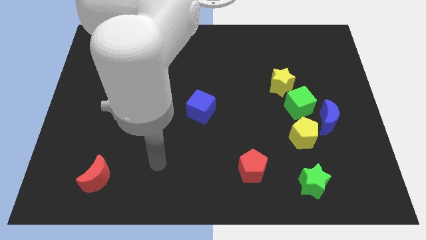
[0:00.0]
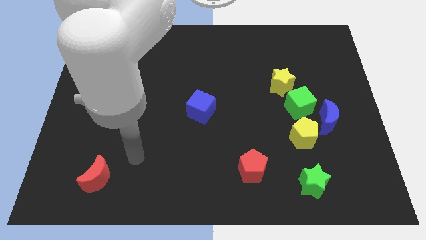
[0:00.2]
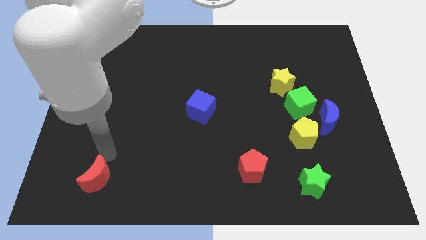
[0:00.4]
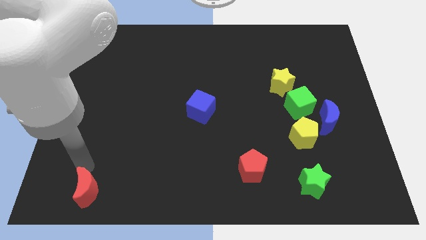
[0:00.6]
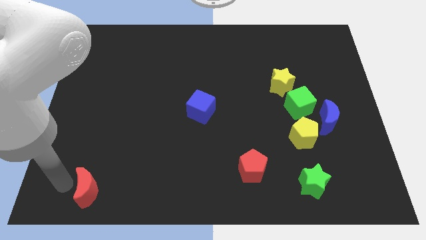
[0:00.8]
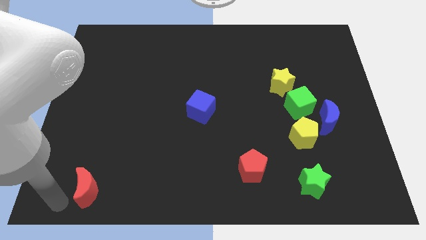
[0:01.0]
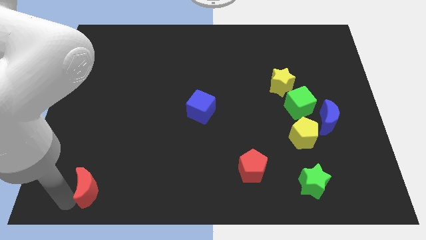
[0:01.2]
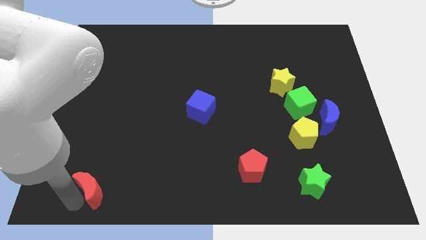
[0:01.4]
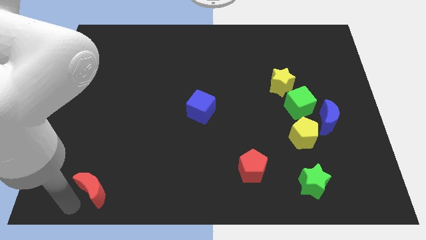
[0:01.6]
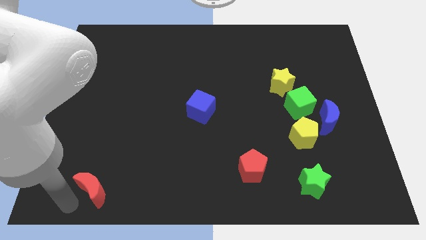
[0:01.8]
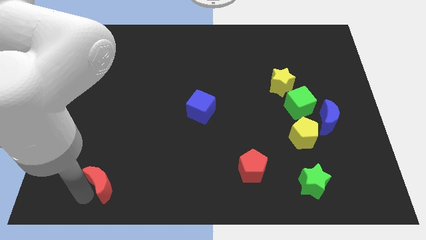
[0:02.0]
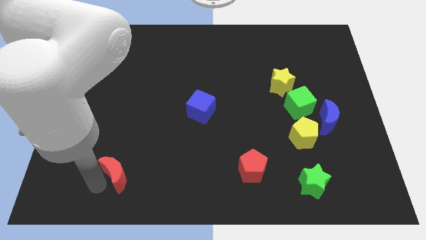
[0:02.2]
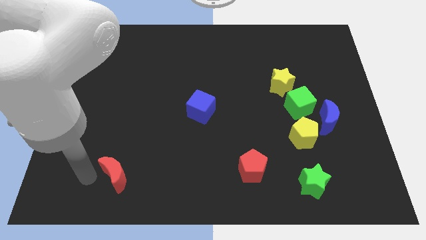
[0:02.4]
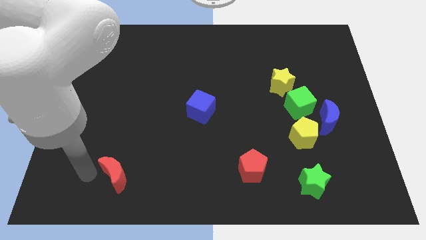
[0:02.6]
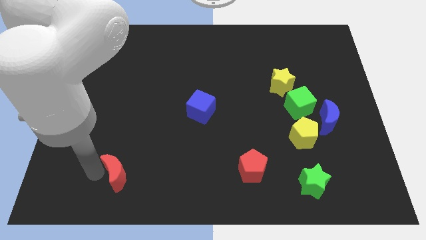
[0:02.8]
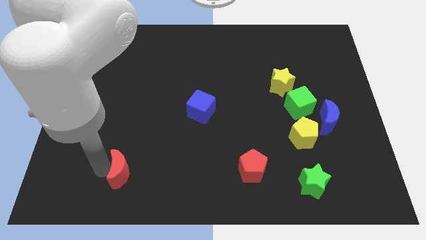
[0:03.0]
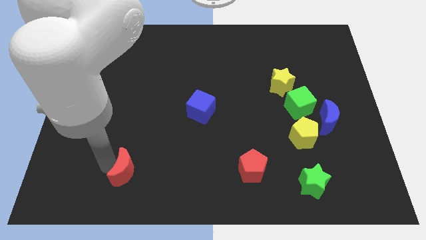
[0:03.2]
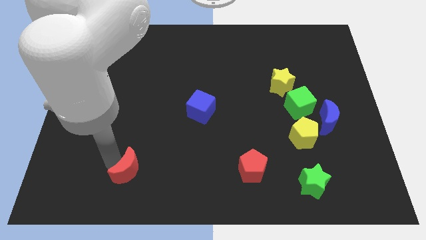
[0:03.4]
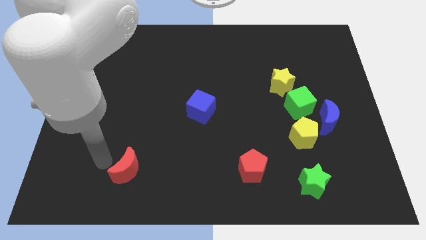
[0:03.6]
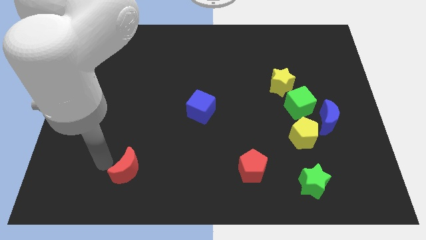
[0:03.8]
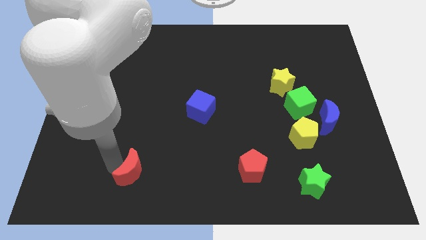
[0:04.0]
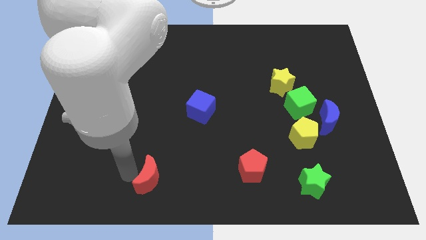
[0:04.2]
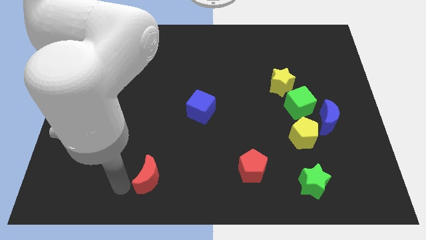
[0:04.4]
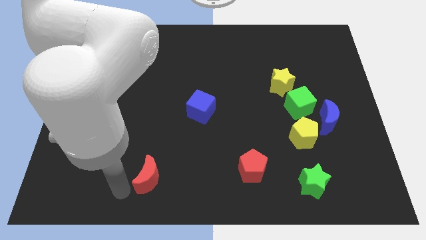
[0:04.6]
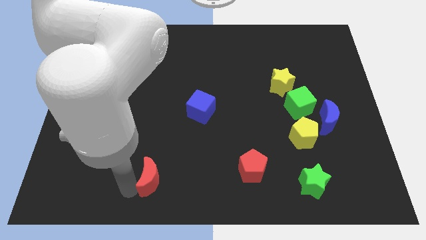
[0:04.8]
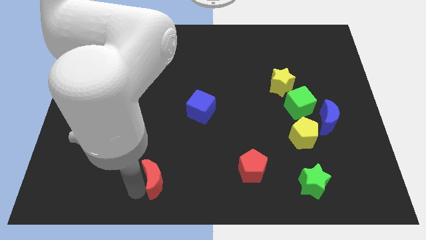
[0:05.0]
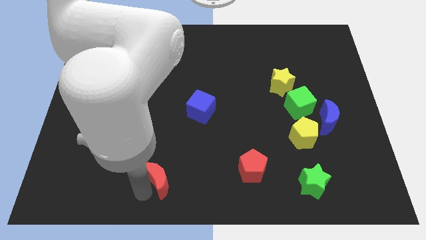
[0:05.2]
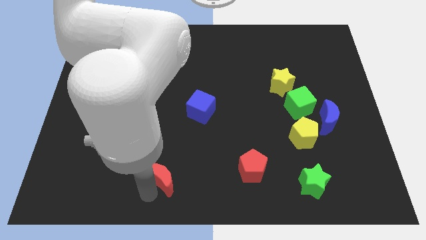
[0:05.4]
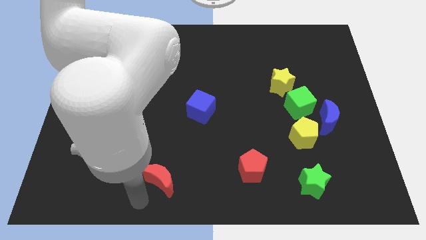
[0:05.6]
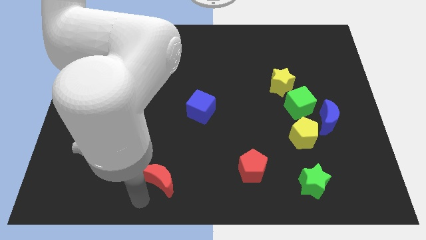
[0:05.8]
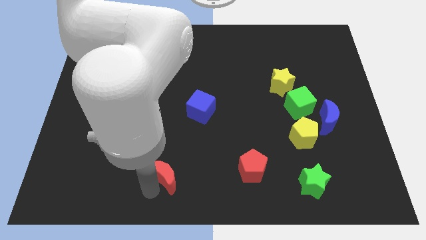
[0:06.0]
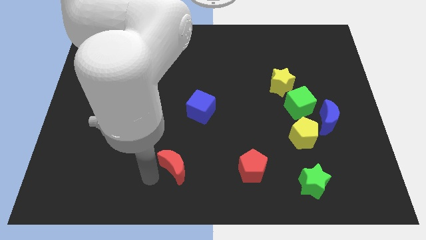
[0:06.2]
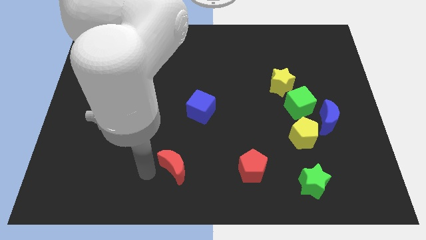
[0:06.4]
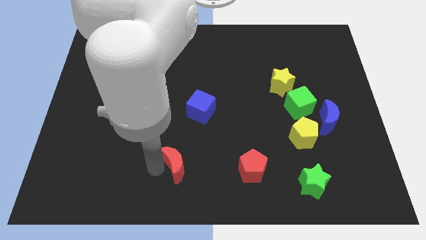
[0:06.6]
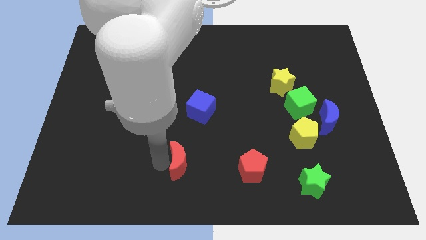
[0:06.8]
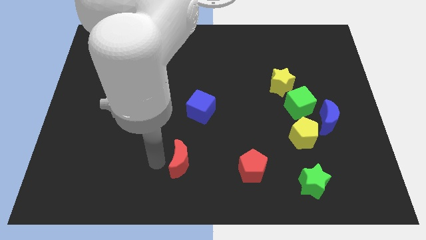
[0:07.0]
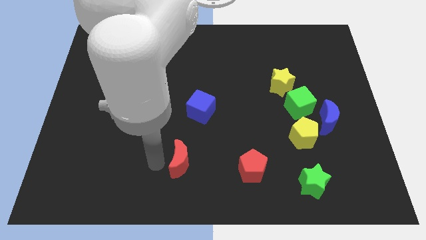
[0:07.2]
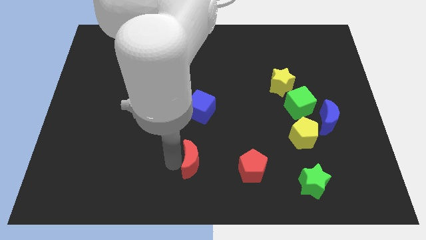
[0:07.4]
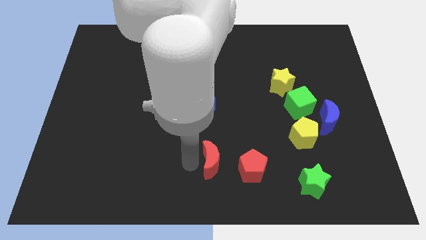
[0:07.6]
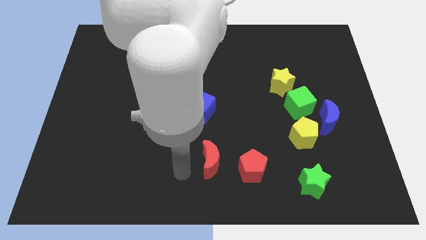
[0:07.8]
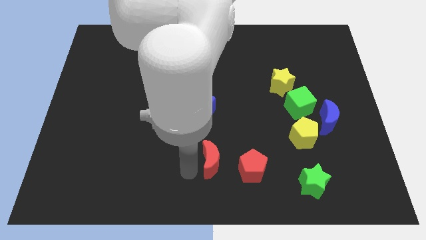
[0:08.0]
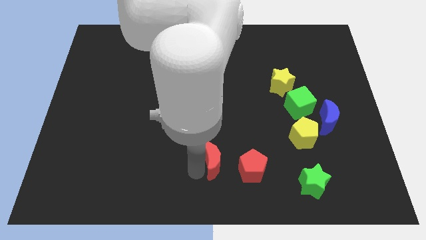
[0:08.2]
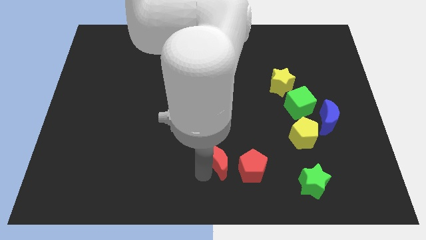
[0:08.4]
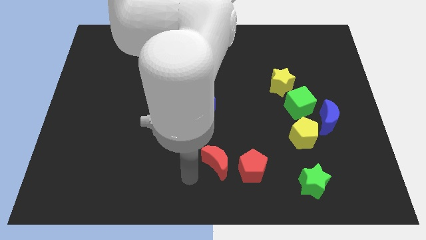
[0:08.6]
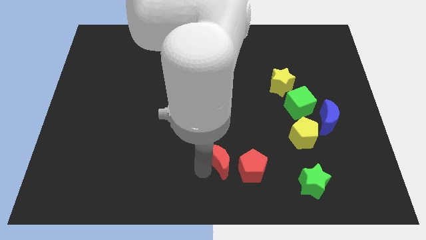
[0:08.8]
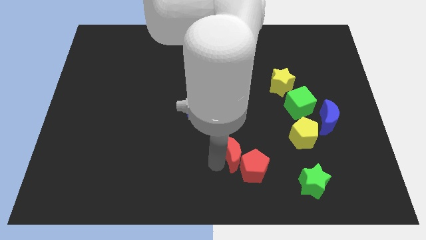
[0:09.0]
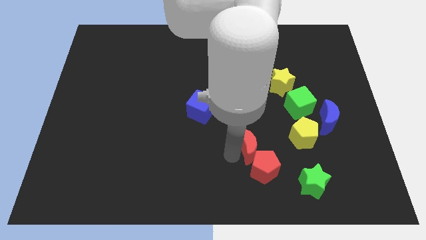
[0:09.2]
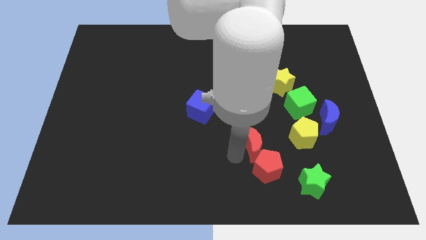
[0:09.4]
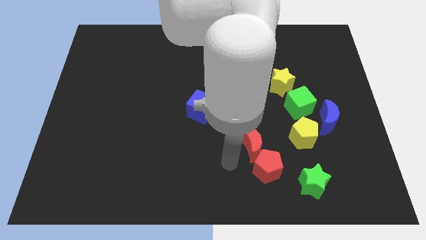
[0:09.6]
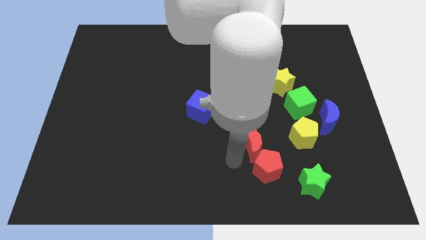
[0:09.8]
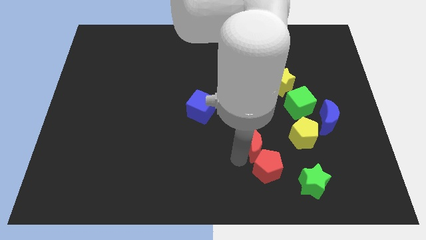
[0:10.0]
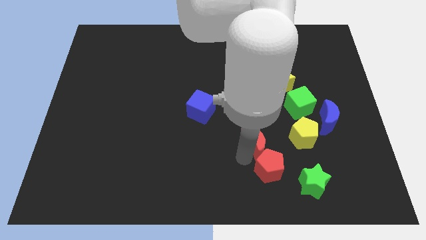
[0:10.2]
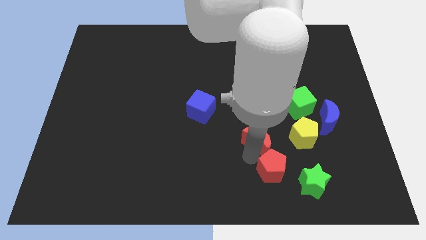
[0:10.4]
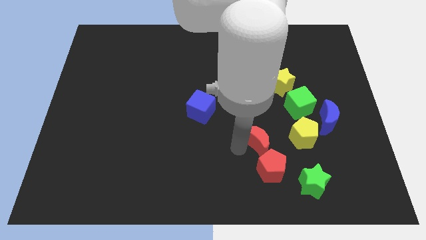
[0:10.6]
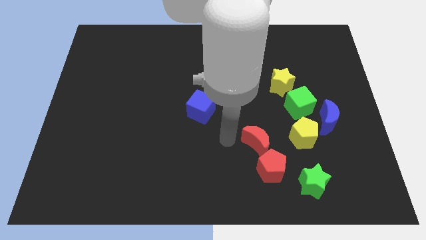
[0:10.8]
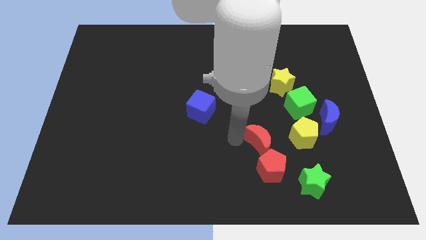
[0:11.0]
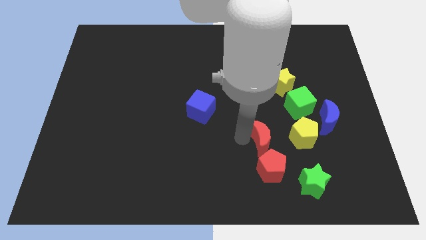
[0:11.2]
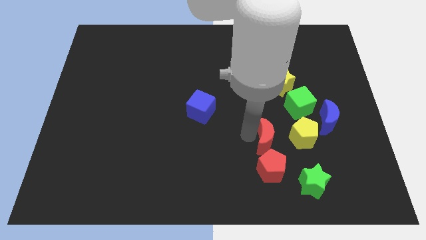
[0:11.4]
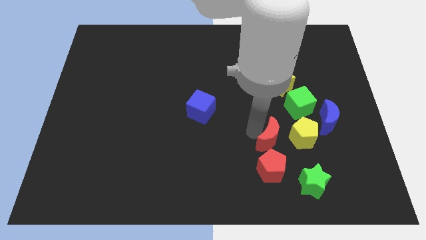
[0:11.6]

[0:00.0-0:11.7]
put the red moon diagonally up and to the right of the red pentagon
